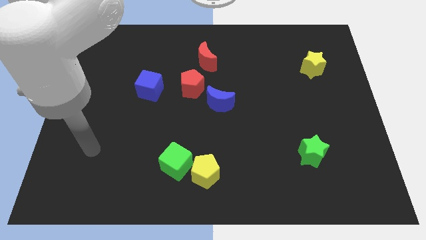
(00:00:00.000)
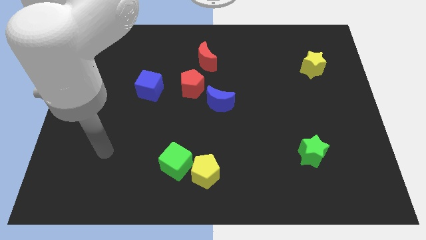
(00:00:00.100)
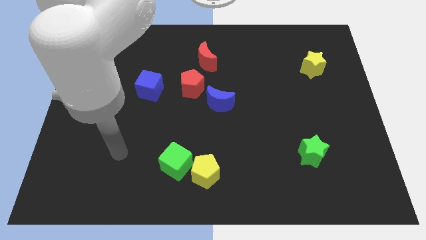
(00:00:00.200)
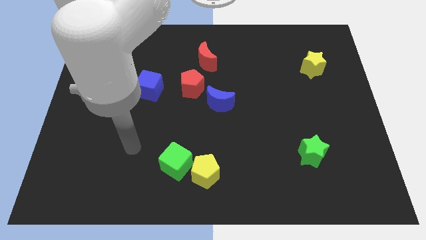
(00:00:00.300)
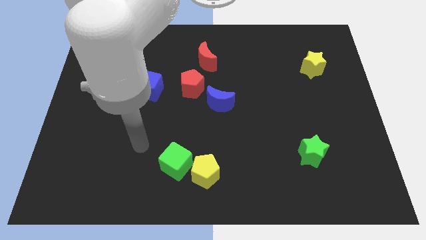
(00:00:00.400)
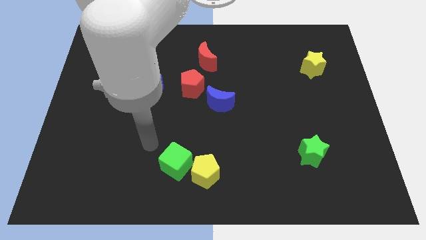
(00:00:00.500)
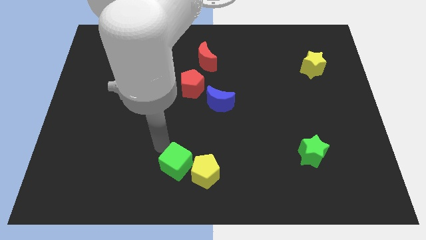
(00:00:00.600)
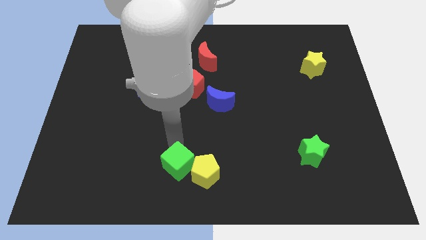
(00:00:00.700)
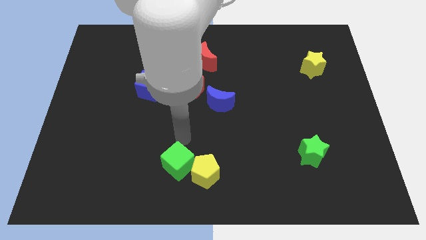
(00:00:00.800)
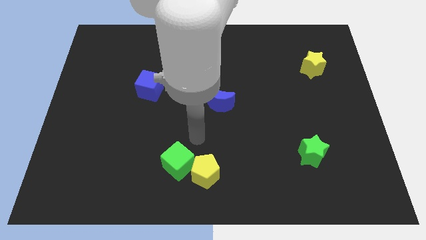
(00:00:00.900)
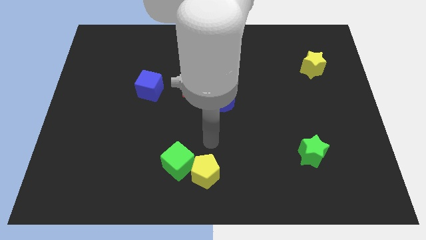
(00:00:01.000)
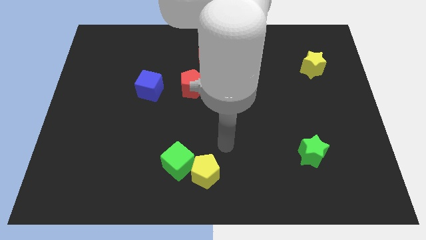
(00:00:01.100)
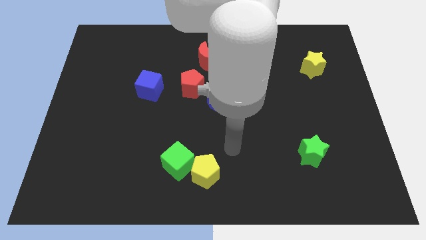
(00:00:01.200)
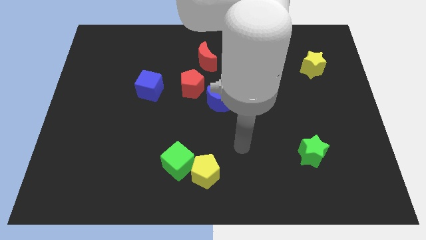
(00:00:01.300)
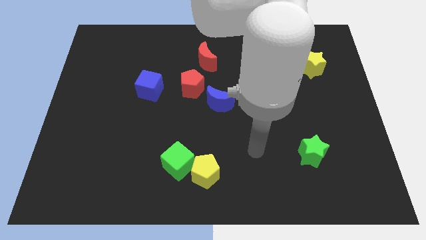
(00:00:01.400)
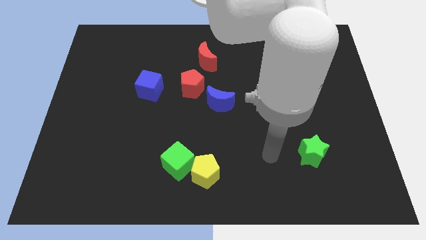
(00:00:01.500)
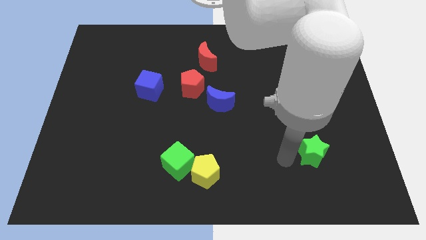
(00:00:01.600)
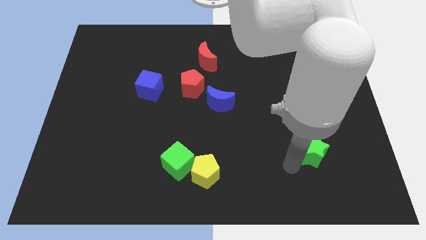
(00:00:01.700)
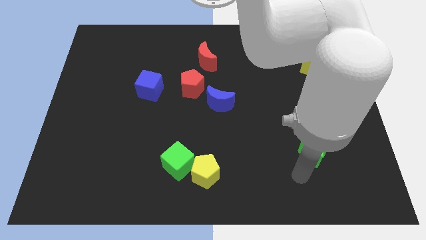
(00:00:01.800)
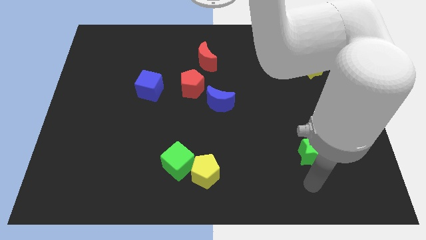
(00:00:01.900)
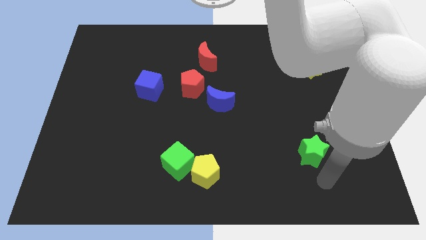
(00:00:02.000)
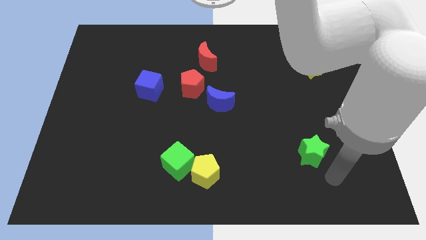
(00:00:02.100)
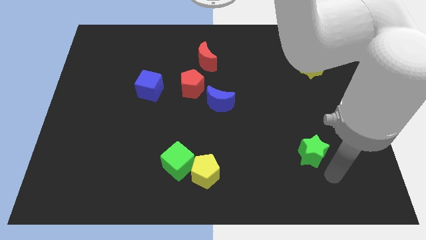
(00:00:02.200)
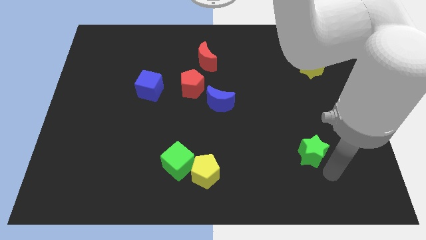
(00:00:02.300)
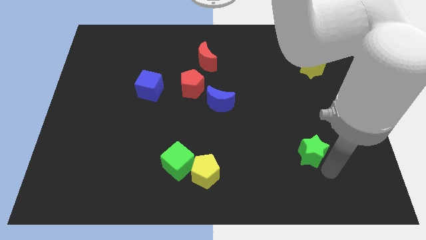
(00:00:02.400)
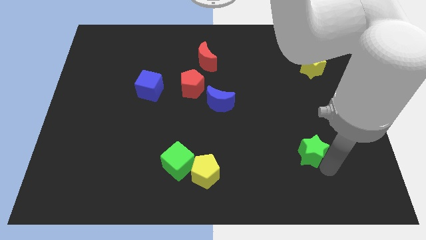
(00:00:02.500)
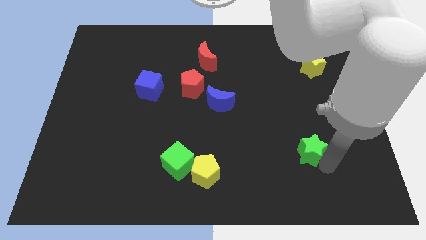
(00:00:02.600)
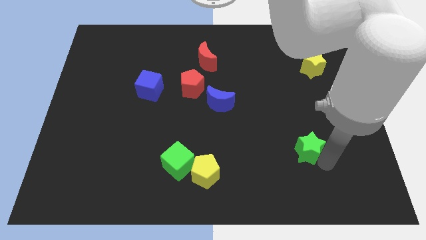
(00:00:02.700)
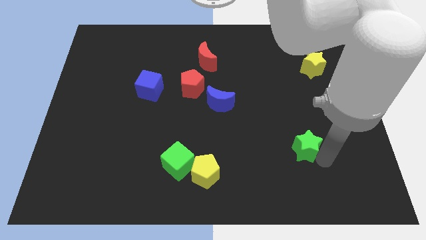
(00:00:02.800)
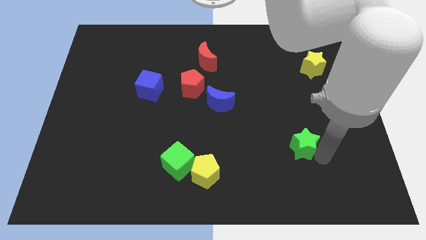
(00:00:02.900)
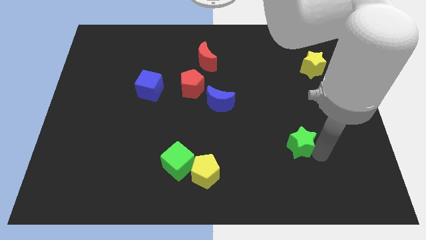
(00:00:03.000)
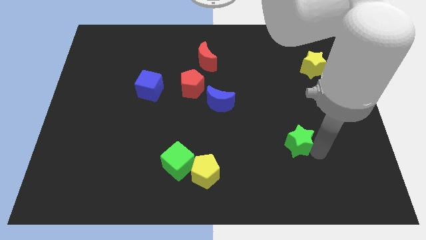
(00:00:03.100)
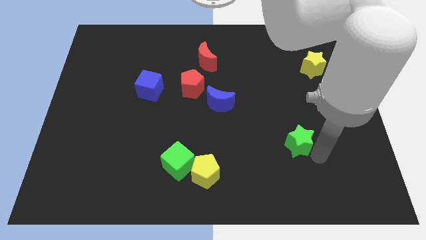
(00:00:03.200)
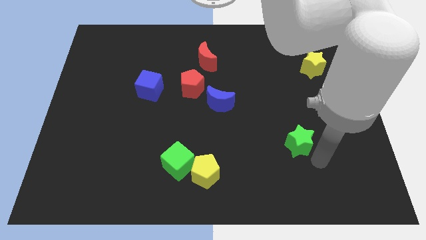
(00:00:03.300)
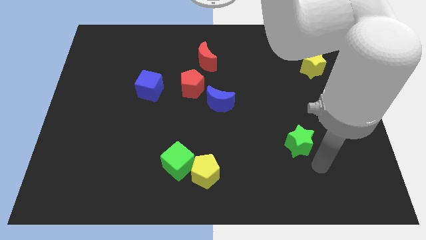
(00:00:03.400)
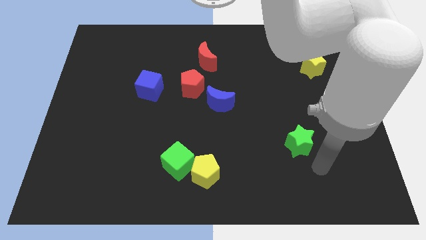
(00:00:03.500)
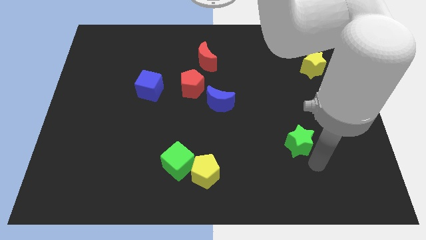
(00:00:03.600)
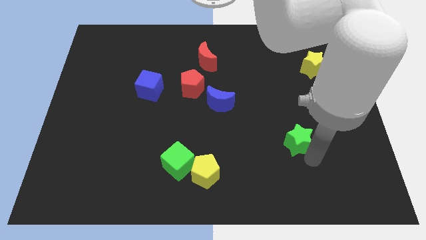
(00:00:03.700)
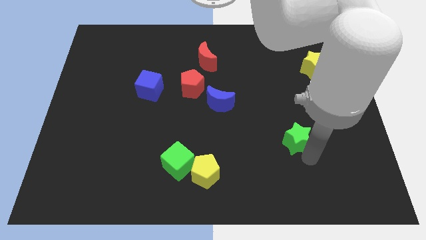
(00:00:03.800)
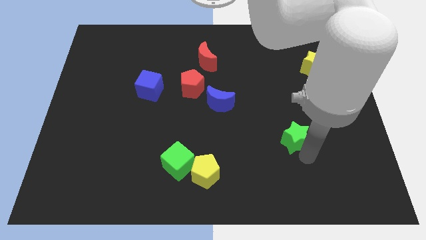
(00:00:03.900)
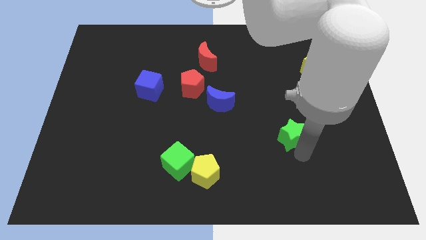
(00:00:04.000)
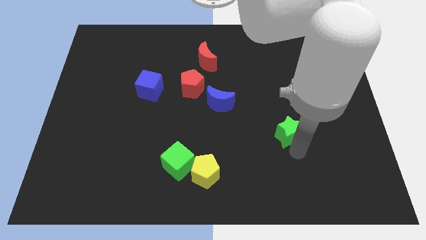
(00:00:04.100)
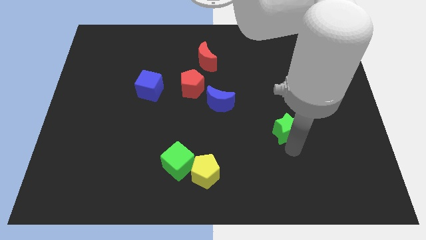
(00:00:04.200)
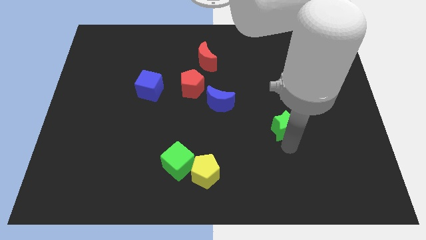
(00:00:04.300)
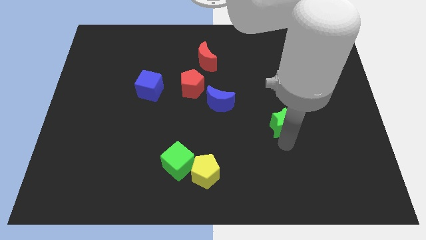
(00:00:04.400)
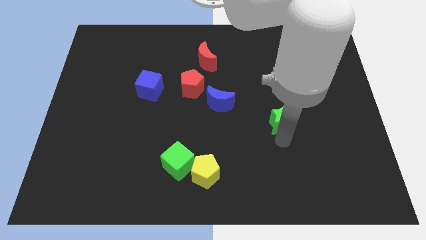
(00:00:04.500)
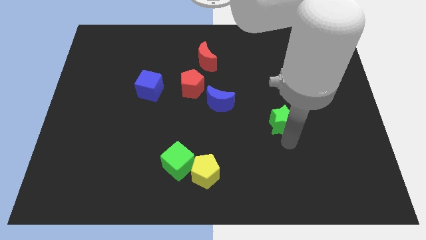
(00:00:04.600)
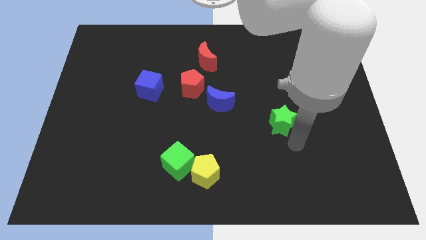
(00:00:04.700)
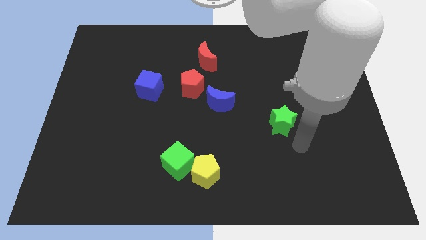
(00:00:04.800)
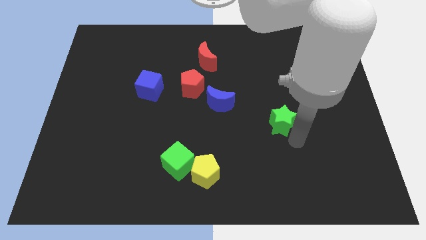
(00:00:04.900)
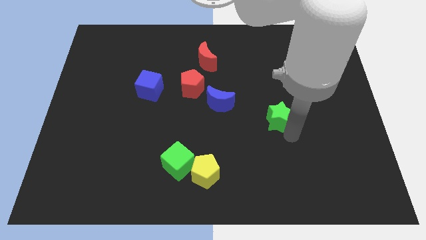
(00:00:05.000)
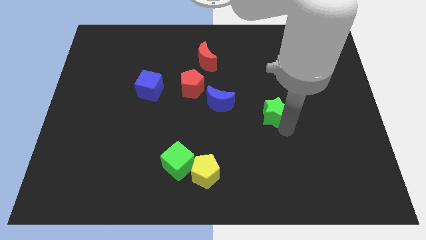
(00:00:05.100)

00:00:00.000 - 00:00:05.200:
push the green star right of the blue moon

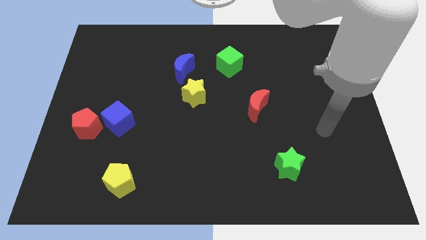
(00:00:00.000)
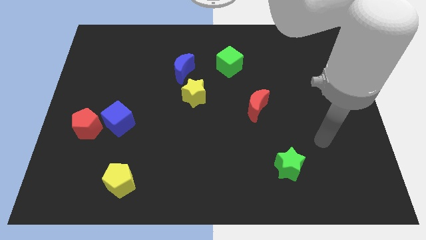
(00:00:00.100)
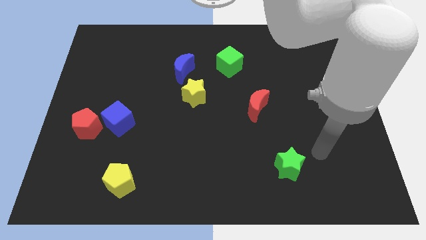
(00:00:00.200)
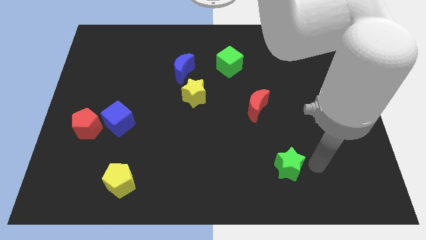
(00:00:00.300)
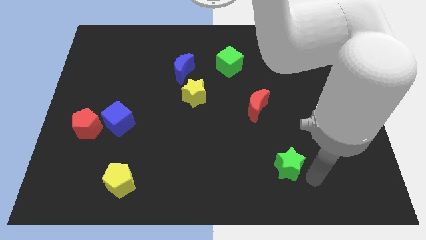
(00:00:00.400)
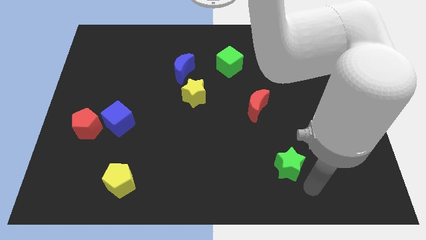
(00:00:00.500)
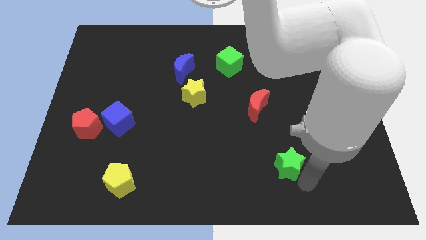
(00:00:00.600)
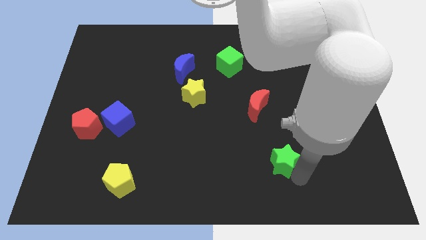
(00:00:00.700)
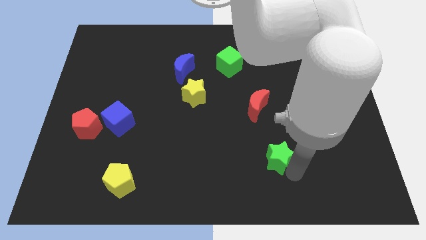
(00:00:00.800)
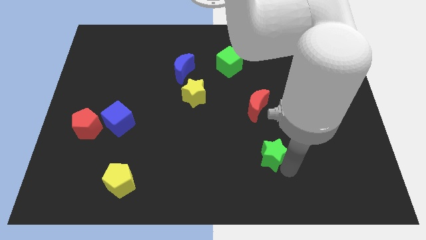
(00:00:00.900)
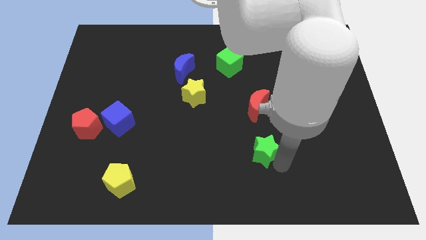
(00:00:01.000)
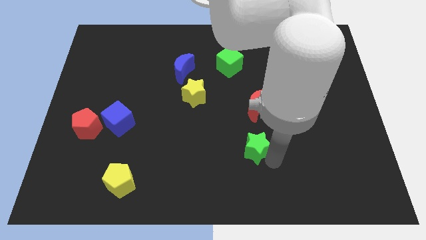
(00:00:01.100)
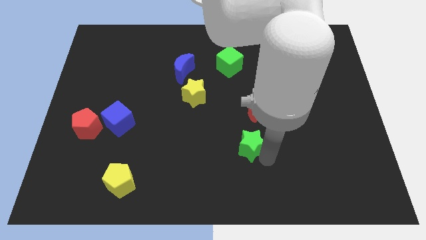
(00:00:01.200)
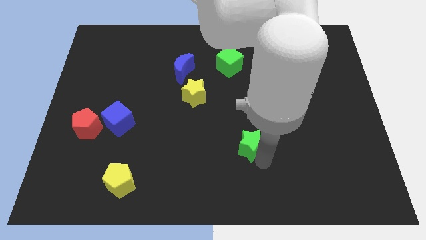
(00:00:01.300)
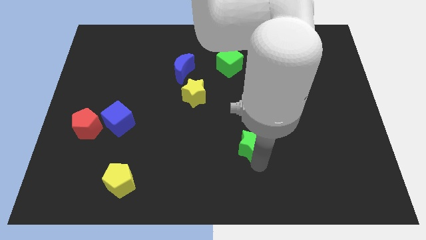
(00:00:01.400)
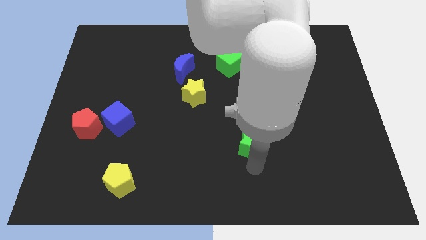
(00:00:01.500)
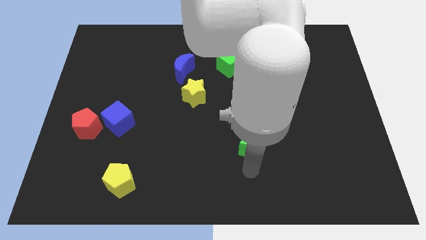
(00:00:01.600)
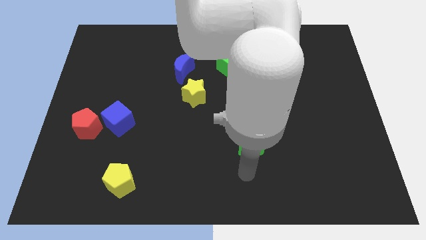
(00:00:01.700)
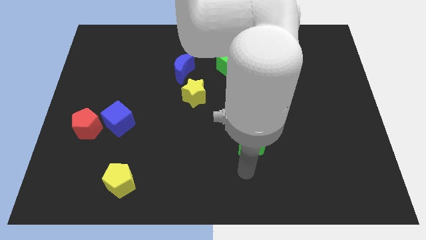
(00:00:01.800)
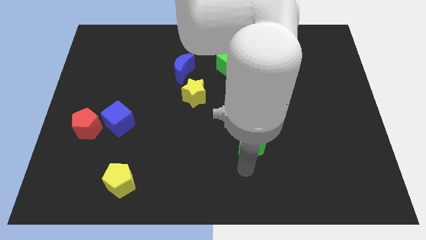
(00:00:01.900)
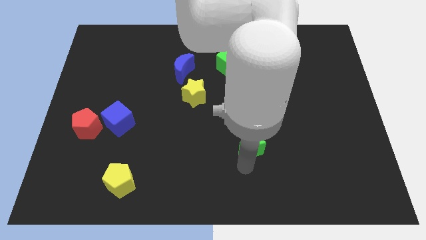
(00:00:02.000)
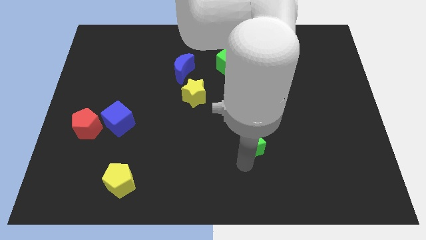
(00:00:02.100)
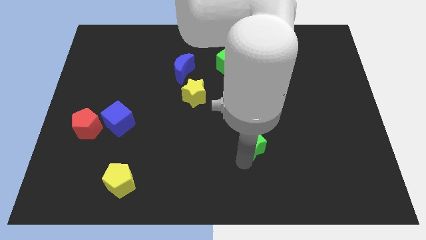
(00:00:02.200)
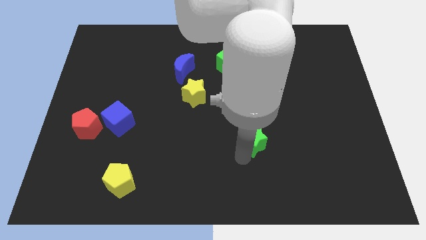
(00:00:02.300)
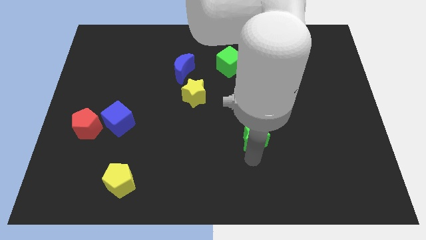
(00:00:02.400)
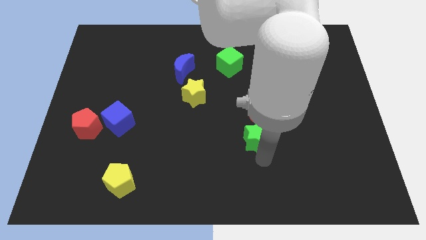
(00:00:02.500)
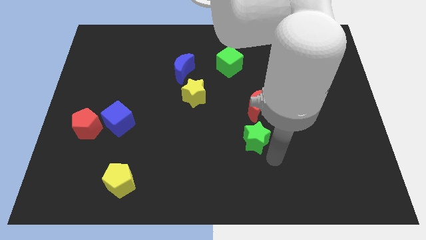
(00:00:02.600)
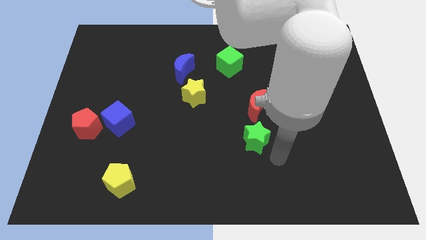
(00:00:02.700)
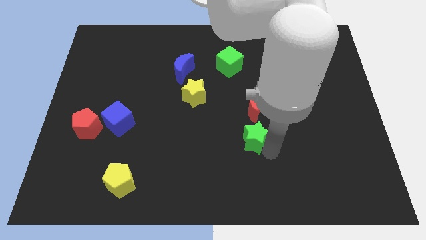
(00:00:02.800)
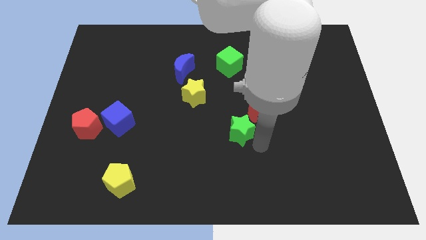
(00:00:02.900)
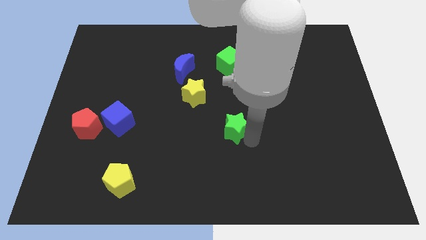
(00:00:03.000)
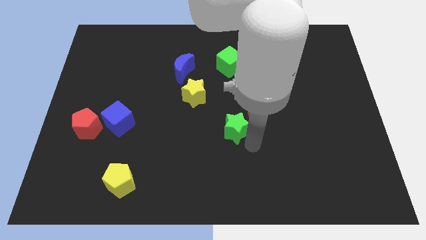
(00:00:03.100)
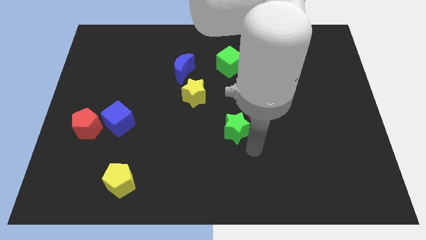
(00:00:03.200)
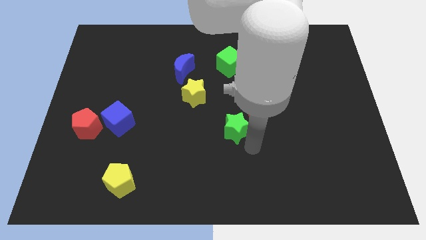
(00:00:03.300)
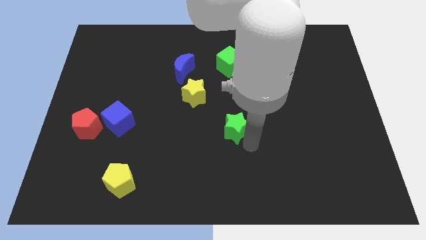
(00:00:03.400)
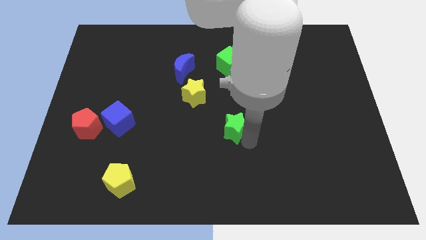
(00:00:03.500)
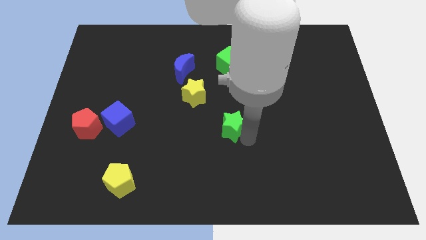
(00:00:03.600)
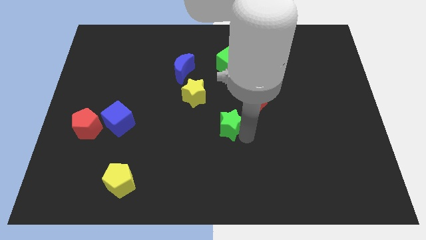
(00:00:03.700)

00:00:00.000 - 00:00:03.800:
push the green star to the bottom right of the yellow star
